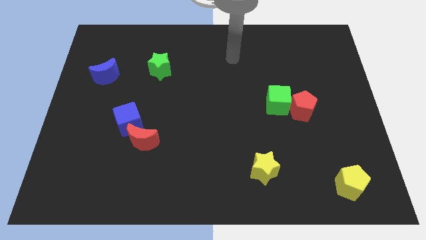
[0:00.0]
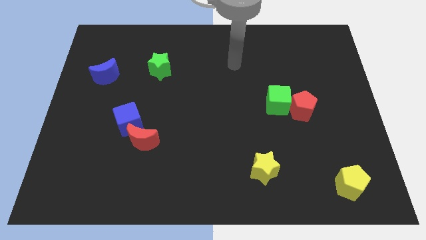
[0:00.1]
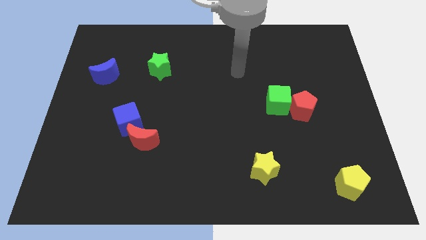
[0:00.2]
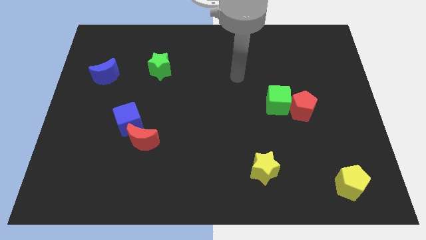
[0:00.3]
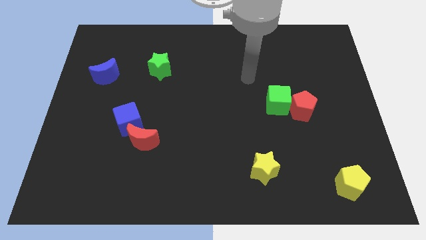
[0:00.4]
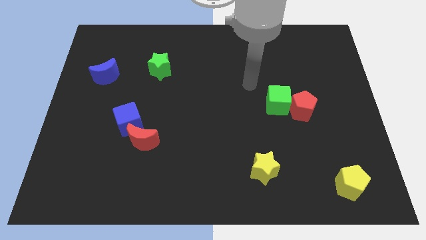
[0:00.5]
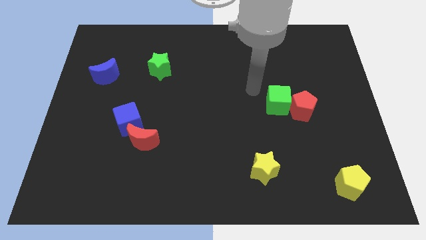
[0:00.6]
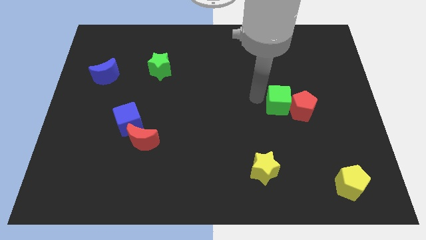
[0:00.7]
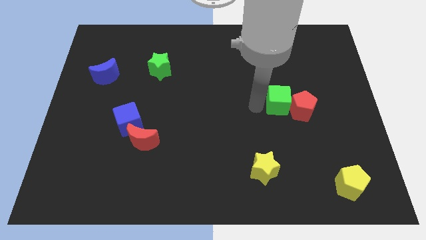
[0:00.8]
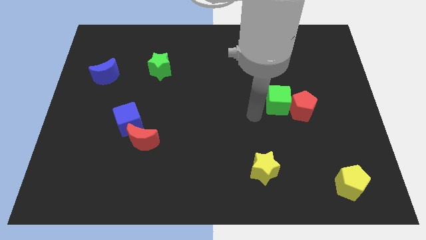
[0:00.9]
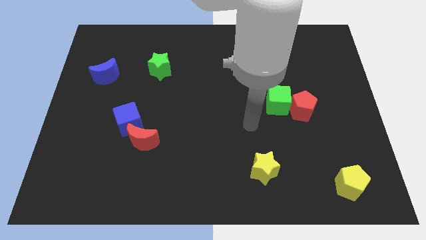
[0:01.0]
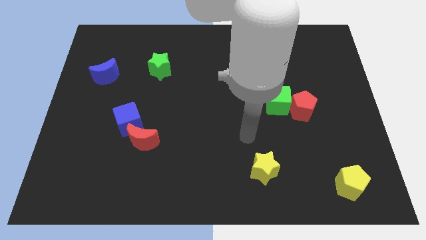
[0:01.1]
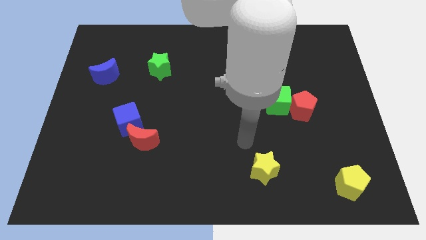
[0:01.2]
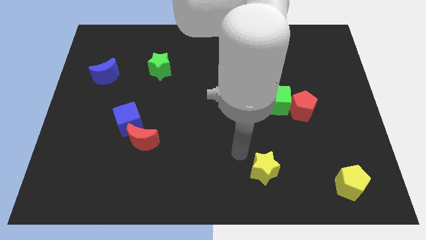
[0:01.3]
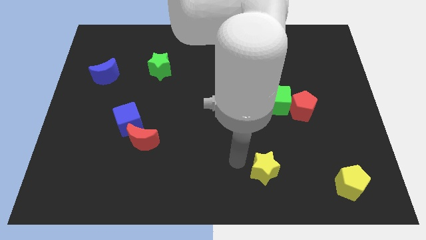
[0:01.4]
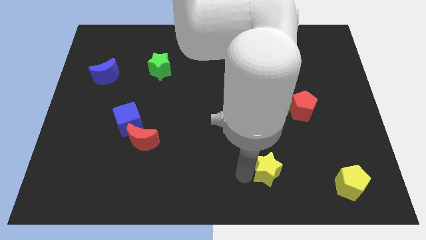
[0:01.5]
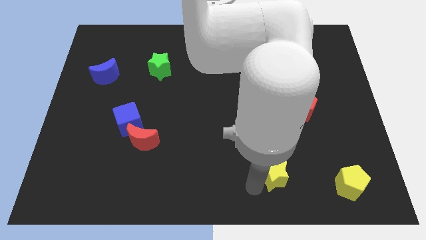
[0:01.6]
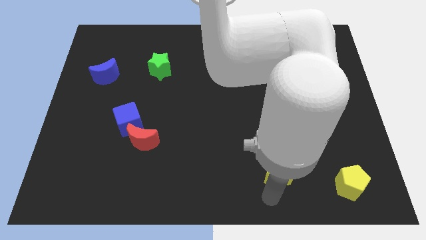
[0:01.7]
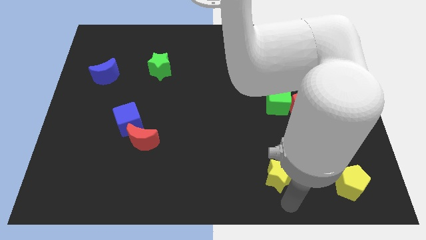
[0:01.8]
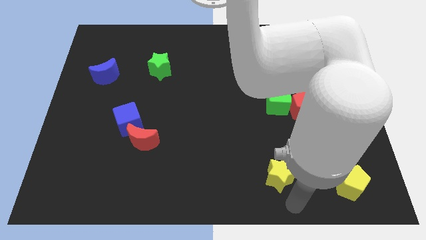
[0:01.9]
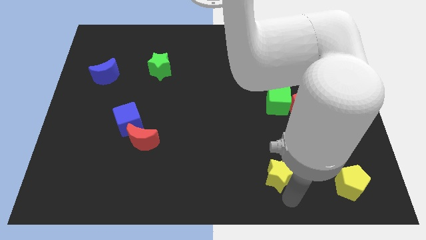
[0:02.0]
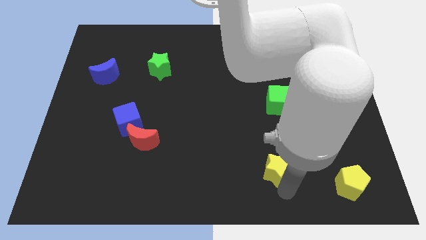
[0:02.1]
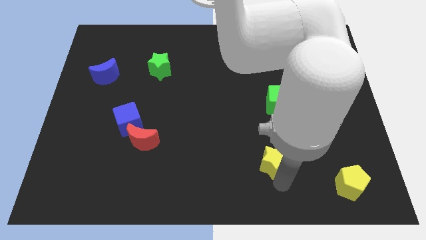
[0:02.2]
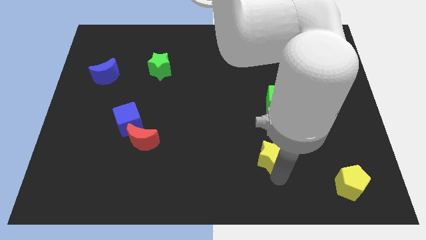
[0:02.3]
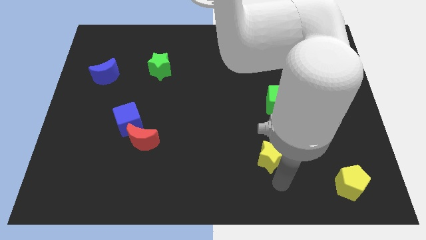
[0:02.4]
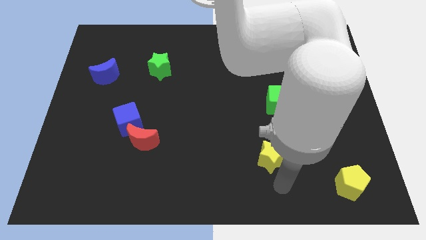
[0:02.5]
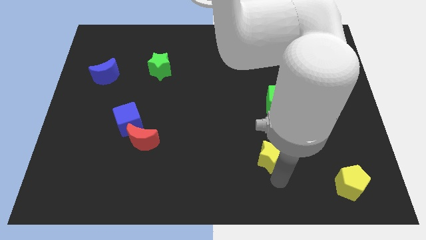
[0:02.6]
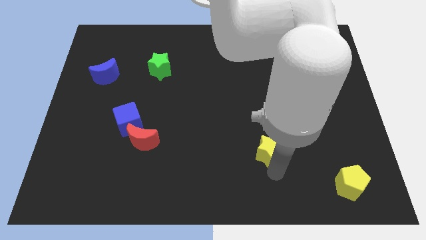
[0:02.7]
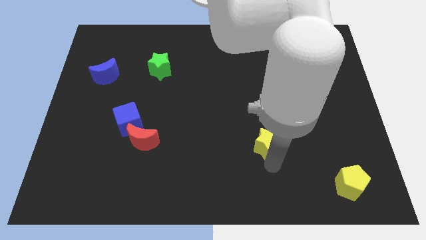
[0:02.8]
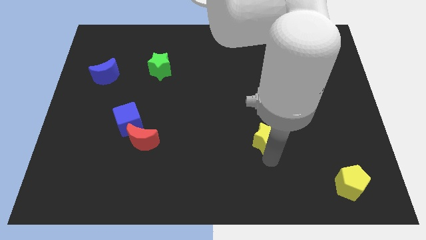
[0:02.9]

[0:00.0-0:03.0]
slightly slide the yellow star up

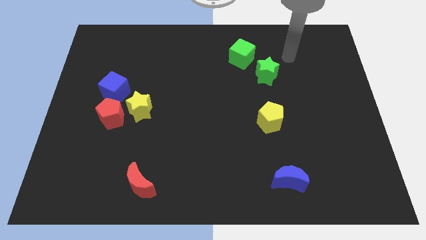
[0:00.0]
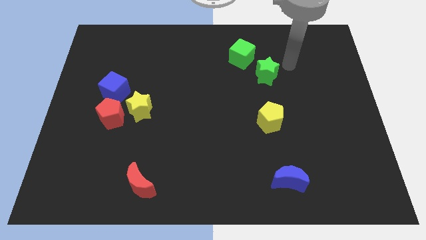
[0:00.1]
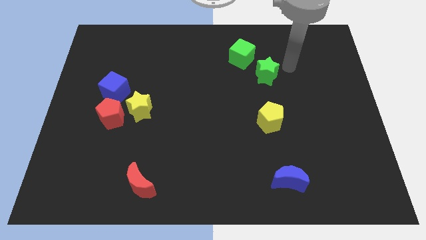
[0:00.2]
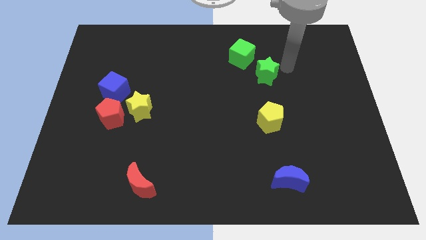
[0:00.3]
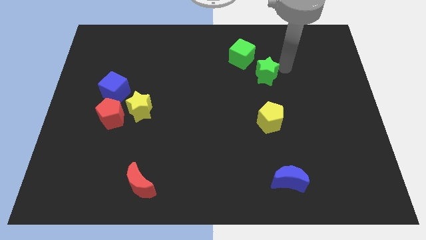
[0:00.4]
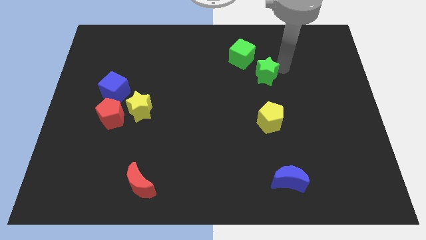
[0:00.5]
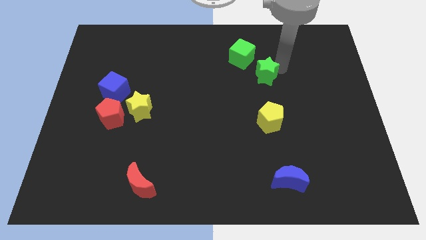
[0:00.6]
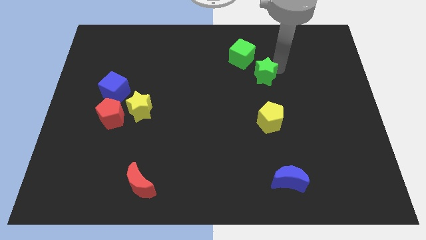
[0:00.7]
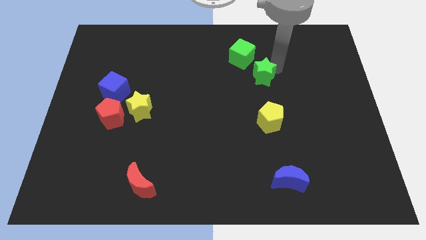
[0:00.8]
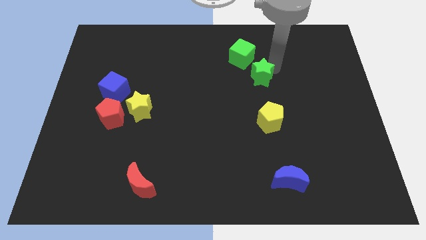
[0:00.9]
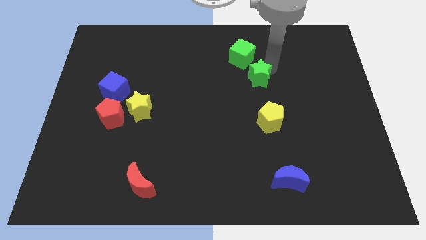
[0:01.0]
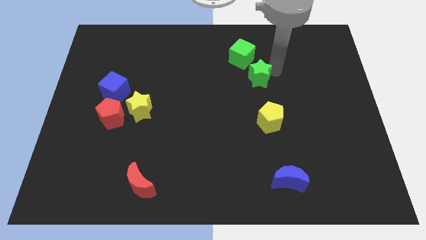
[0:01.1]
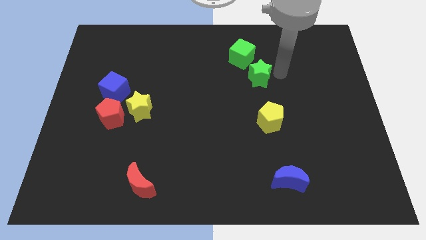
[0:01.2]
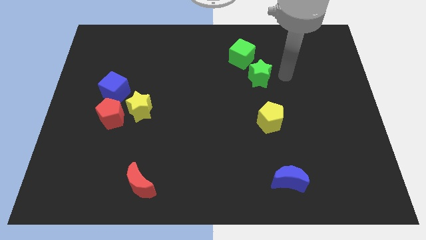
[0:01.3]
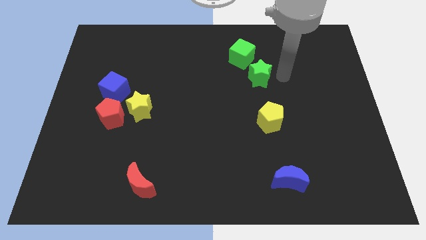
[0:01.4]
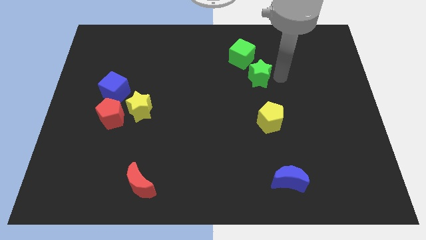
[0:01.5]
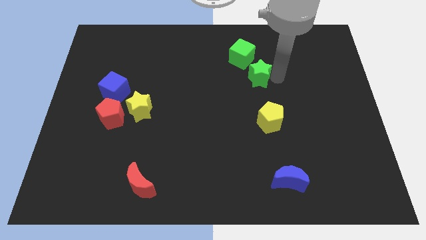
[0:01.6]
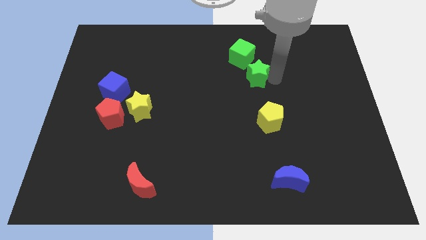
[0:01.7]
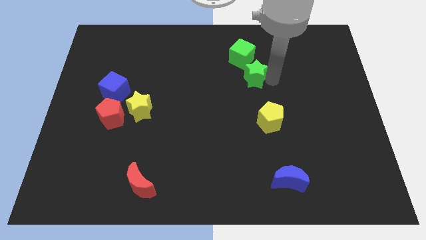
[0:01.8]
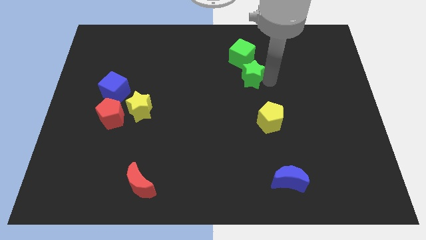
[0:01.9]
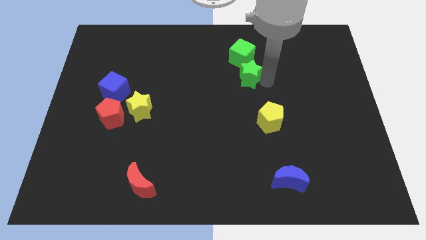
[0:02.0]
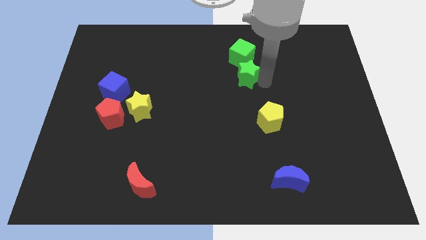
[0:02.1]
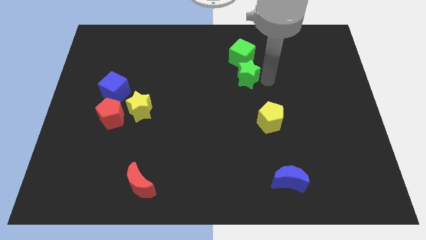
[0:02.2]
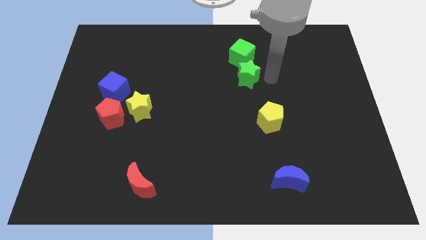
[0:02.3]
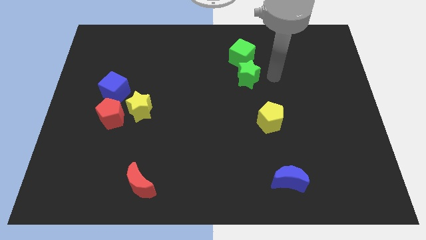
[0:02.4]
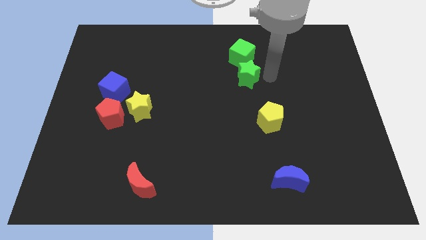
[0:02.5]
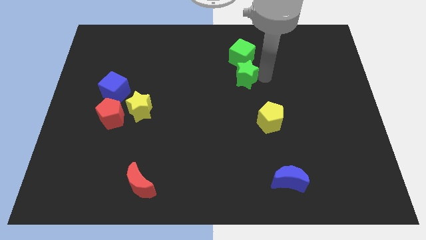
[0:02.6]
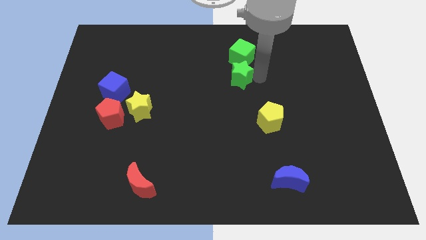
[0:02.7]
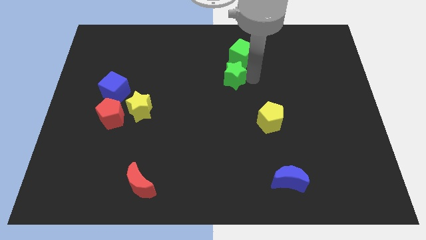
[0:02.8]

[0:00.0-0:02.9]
slightly move the green star to the left

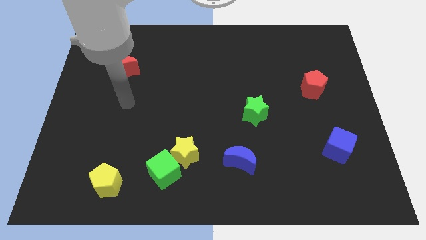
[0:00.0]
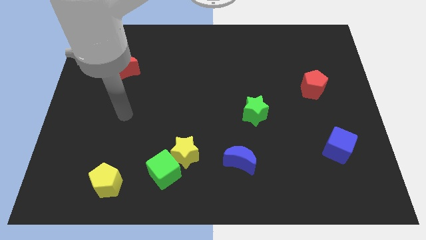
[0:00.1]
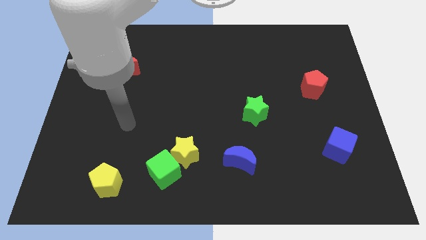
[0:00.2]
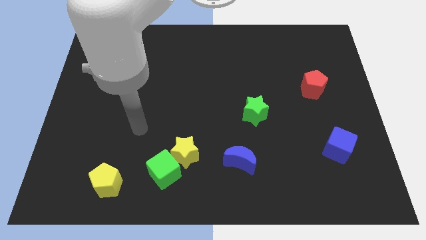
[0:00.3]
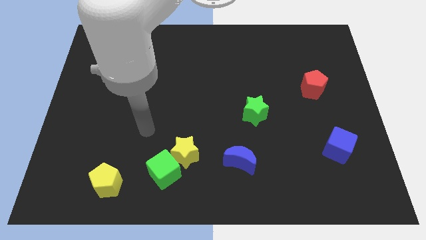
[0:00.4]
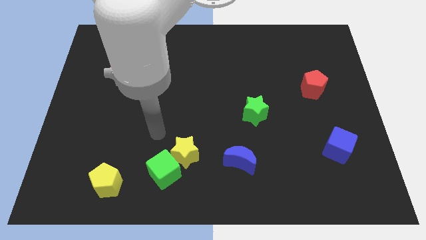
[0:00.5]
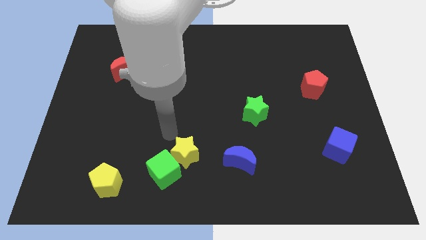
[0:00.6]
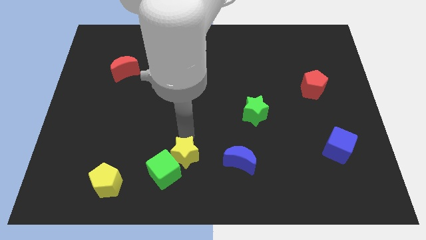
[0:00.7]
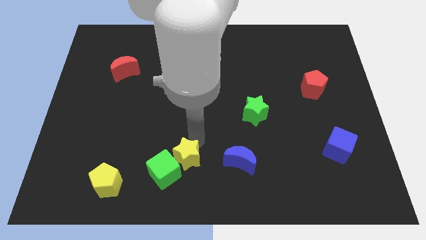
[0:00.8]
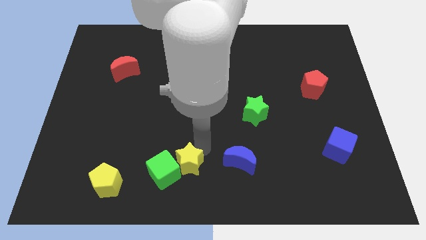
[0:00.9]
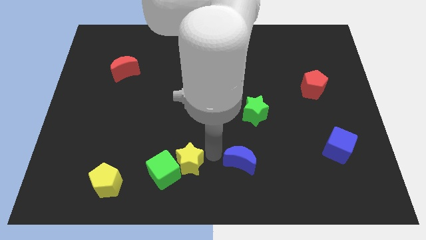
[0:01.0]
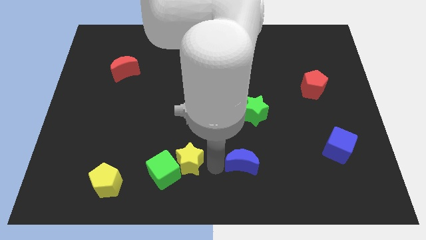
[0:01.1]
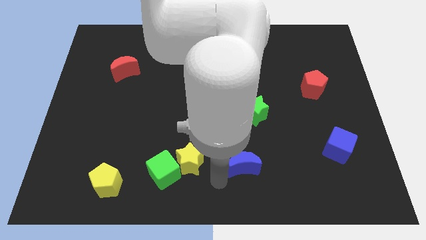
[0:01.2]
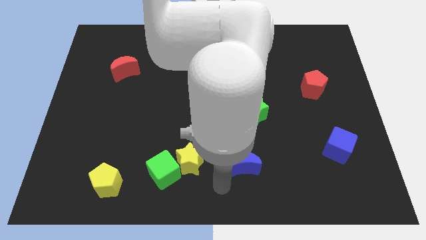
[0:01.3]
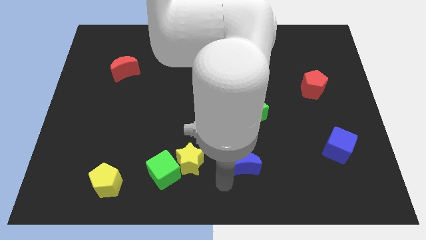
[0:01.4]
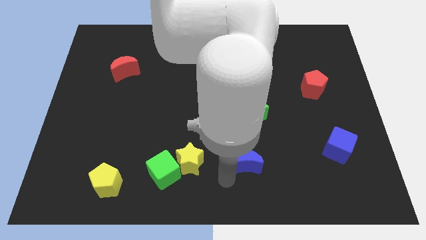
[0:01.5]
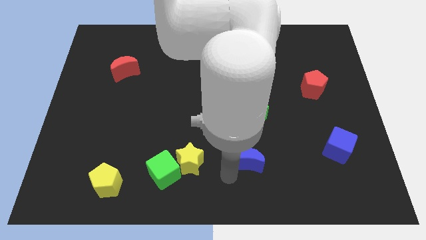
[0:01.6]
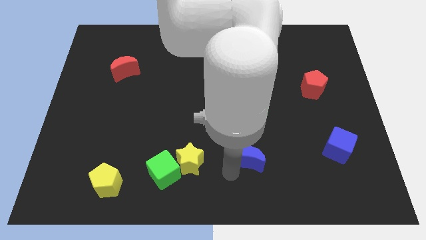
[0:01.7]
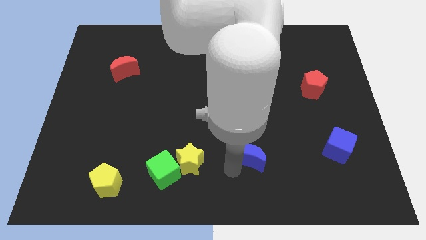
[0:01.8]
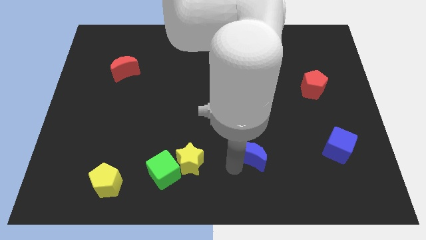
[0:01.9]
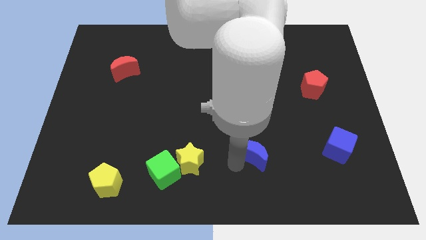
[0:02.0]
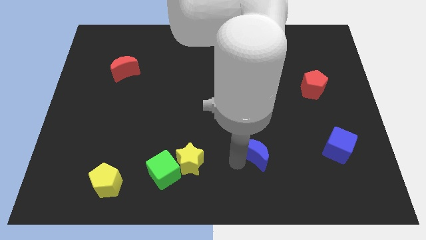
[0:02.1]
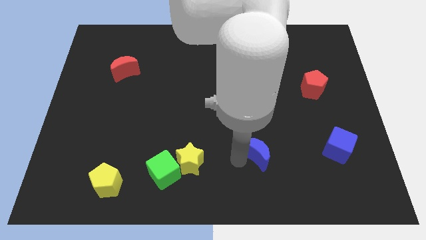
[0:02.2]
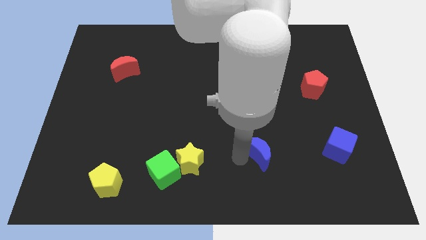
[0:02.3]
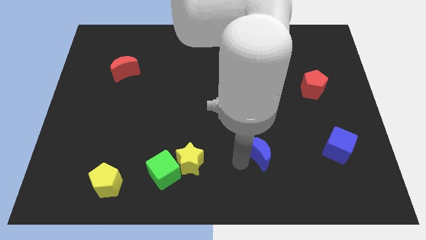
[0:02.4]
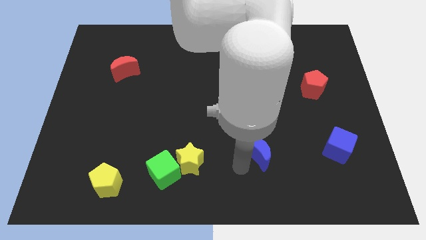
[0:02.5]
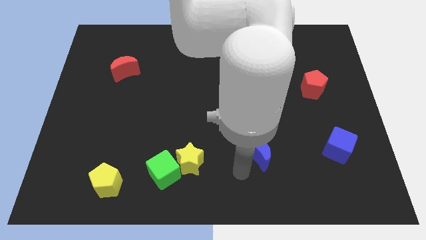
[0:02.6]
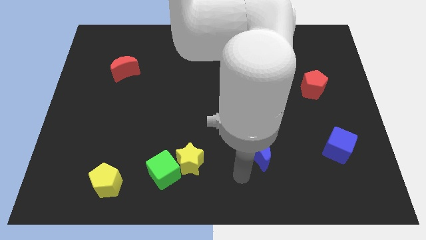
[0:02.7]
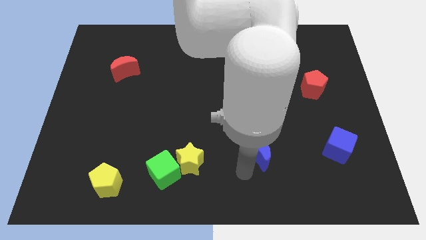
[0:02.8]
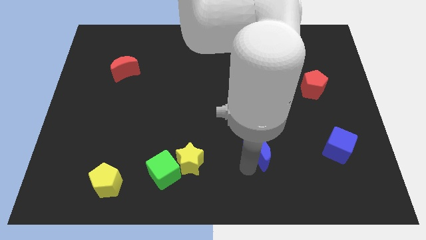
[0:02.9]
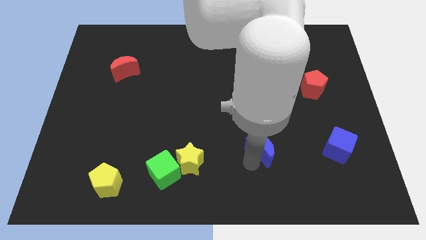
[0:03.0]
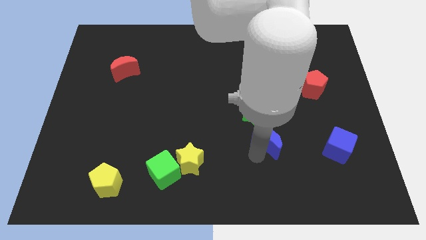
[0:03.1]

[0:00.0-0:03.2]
push the blue moon slightly upwards and then right
